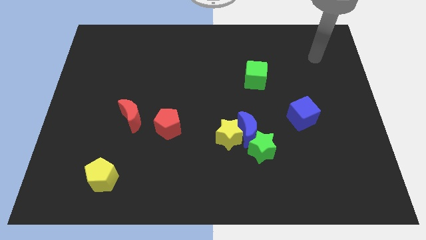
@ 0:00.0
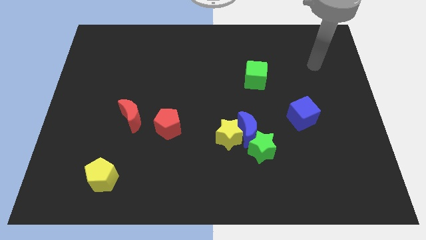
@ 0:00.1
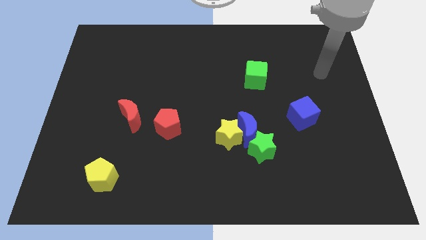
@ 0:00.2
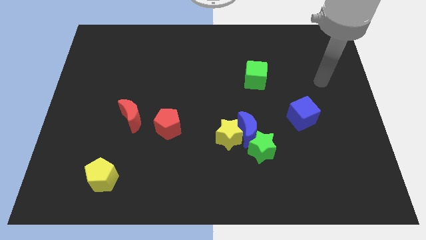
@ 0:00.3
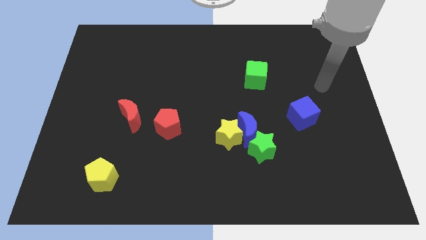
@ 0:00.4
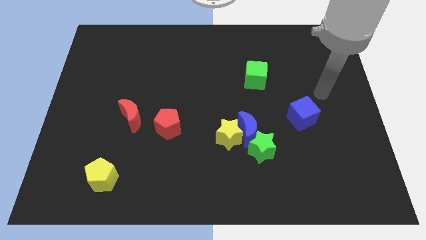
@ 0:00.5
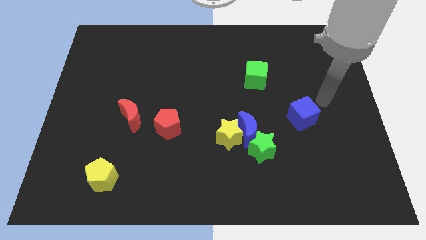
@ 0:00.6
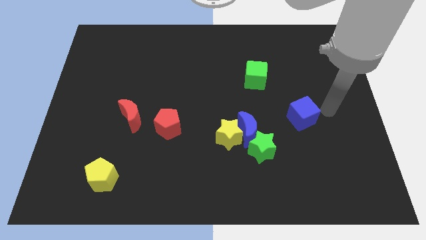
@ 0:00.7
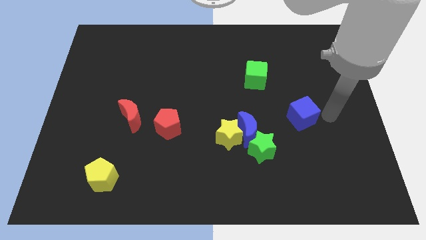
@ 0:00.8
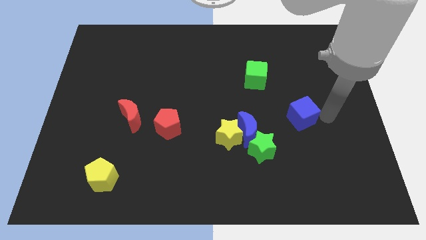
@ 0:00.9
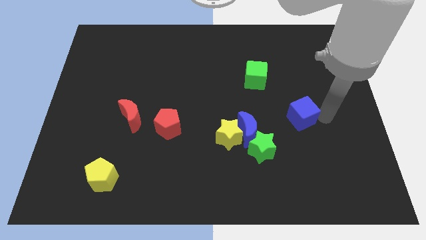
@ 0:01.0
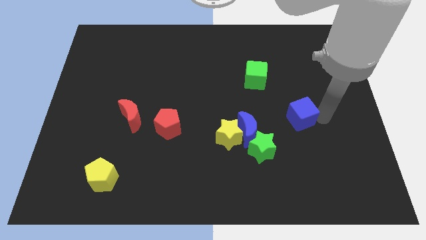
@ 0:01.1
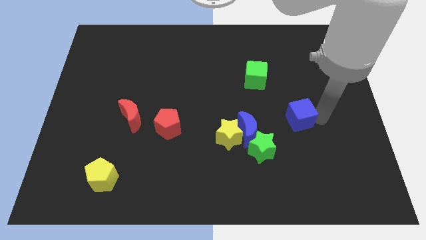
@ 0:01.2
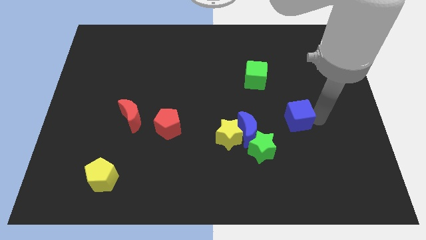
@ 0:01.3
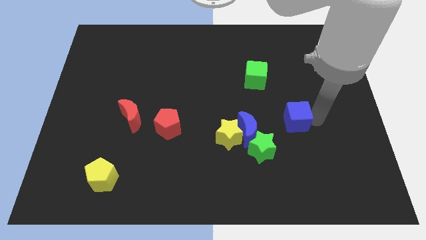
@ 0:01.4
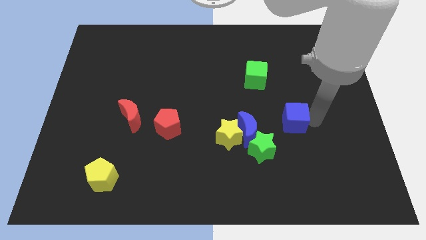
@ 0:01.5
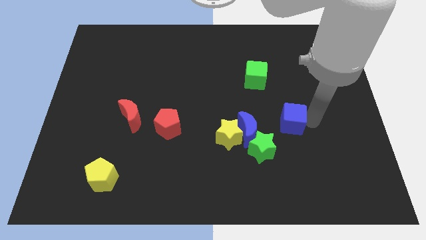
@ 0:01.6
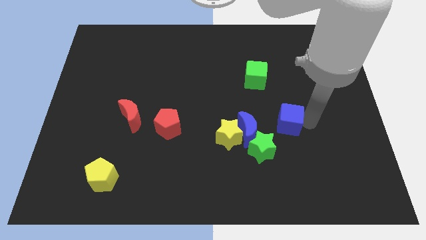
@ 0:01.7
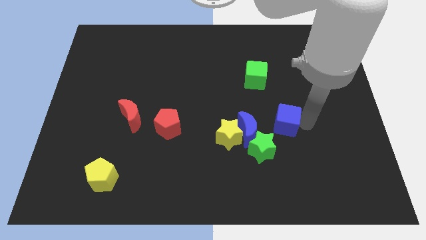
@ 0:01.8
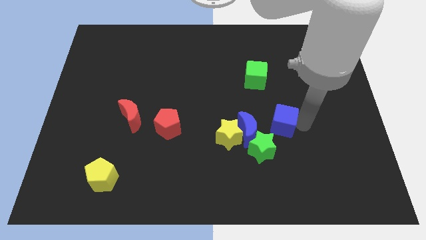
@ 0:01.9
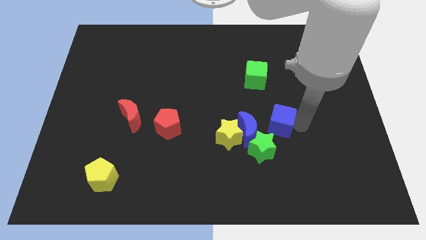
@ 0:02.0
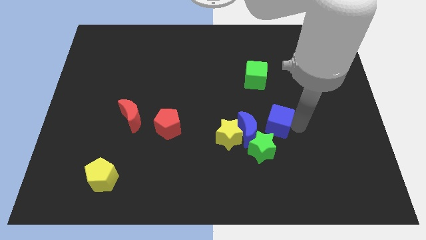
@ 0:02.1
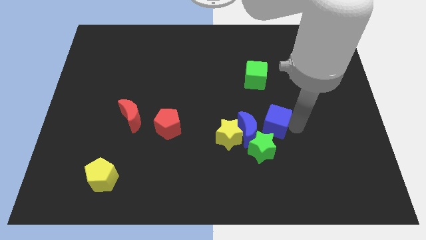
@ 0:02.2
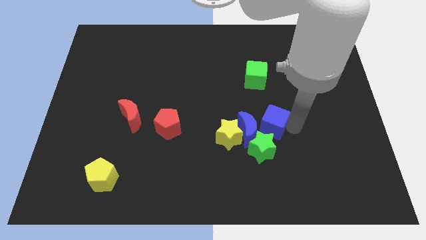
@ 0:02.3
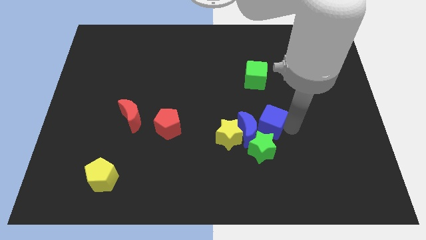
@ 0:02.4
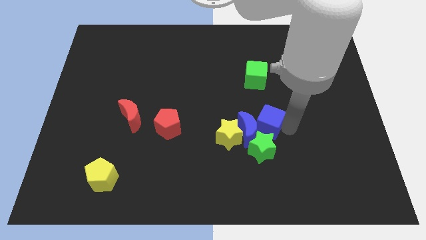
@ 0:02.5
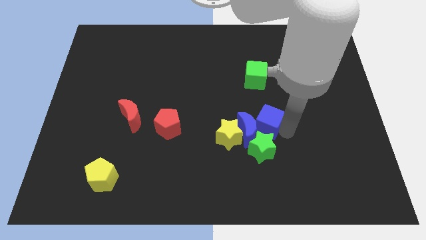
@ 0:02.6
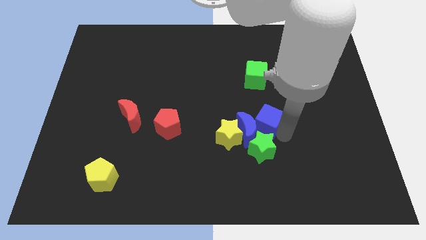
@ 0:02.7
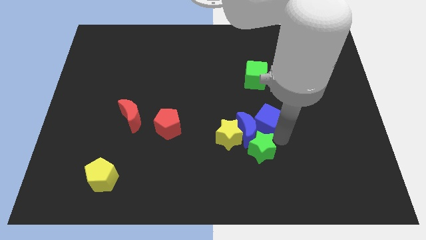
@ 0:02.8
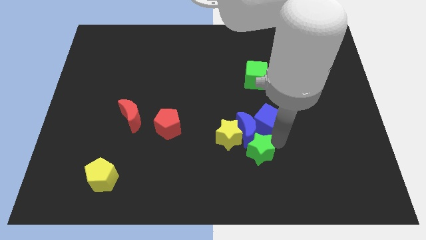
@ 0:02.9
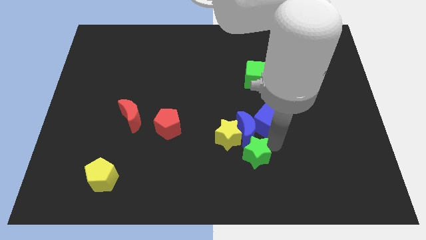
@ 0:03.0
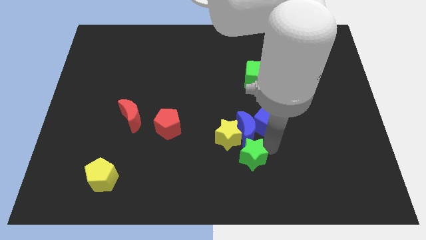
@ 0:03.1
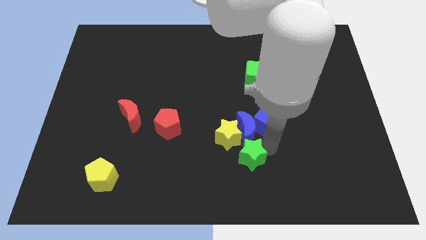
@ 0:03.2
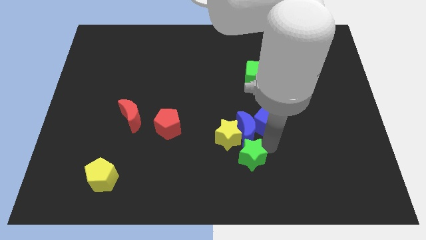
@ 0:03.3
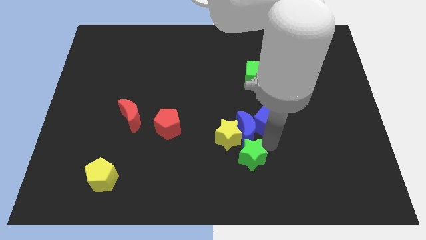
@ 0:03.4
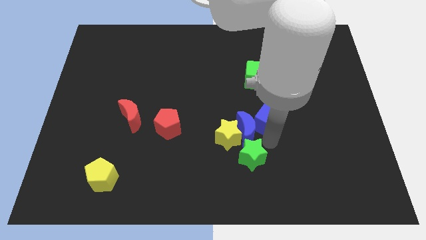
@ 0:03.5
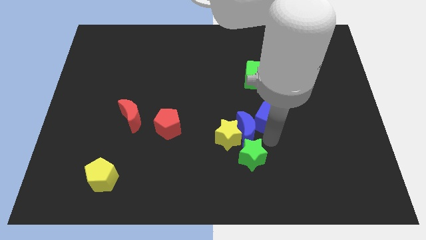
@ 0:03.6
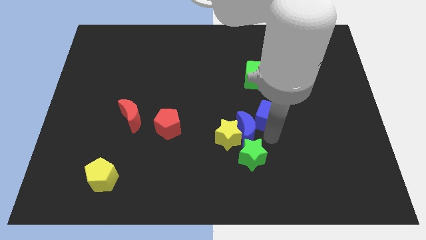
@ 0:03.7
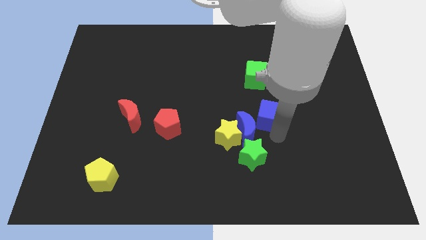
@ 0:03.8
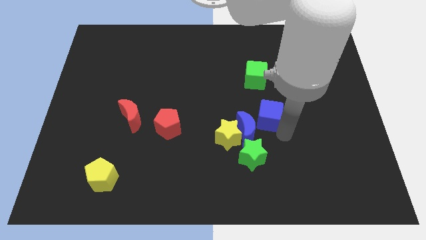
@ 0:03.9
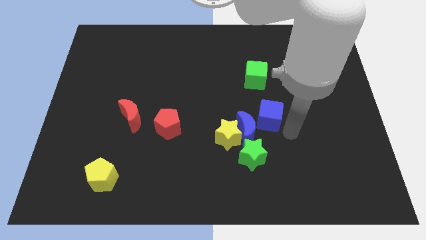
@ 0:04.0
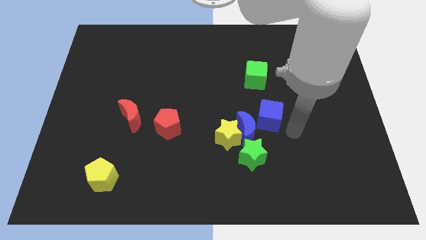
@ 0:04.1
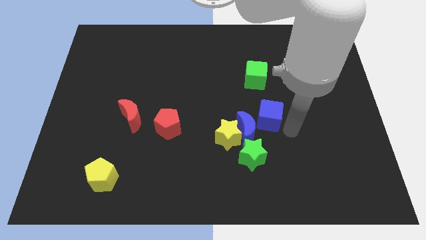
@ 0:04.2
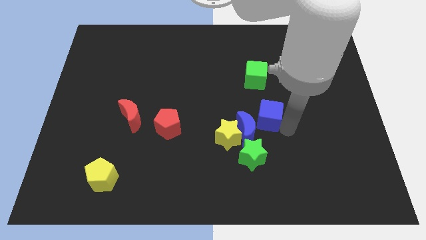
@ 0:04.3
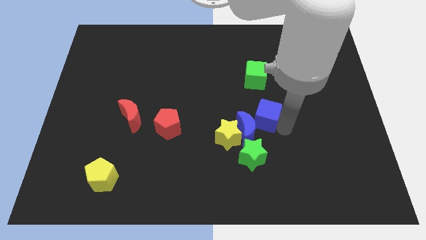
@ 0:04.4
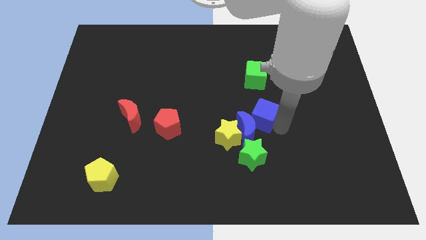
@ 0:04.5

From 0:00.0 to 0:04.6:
slide the blue cube to the middle of the board

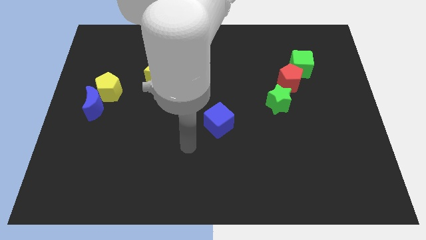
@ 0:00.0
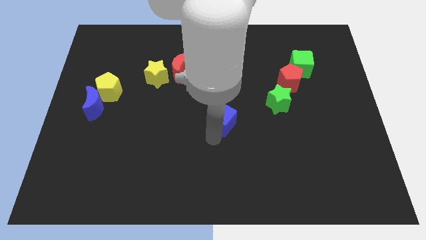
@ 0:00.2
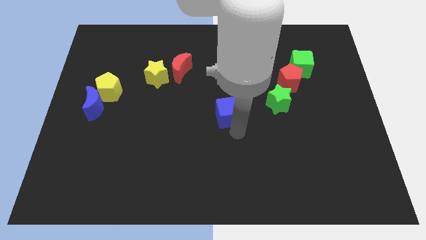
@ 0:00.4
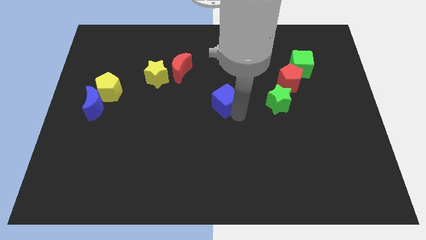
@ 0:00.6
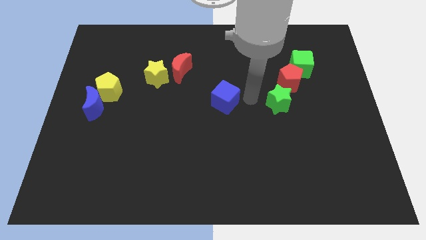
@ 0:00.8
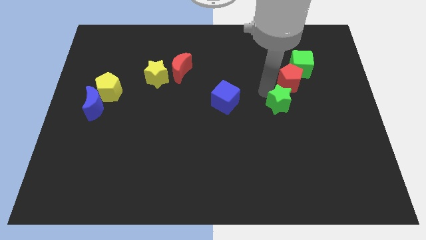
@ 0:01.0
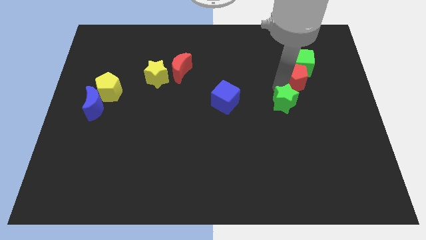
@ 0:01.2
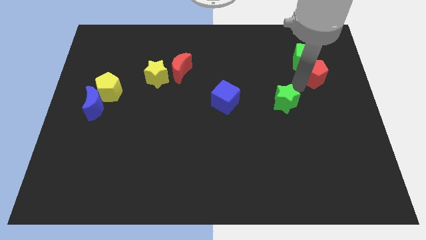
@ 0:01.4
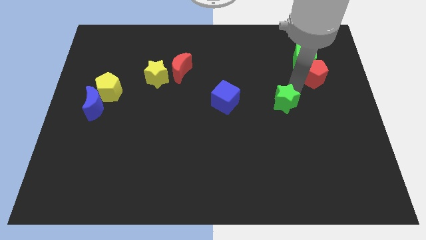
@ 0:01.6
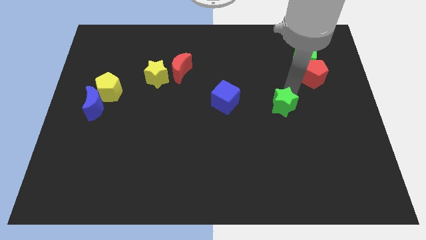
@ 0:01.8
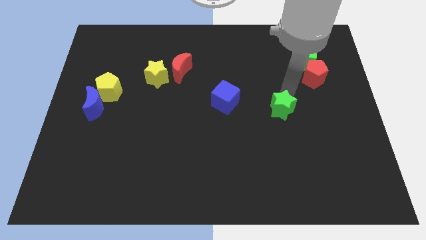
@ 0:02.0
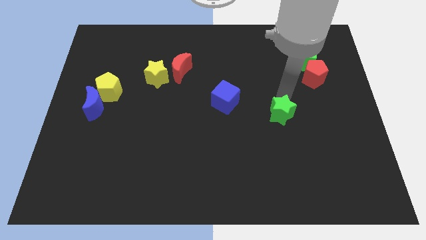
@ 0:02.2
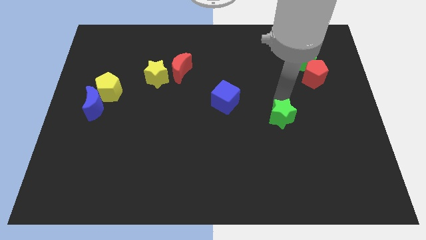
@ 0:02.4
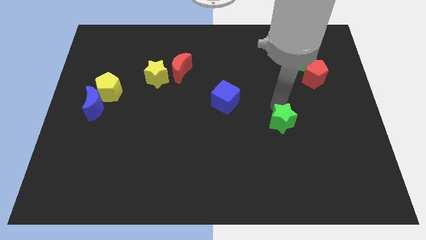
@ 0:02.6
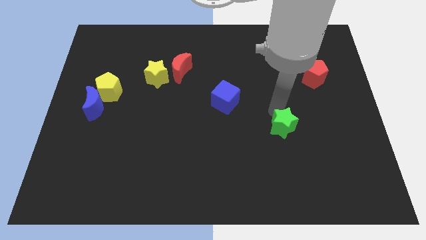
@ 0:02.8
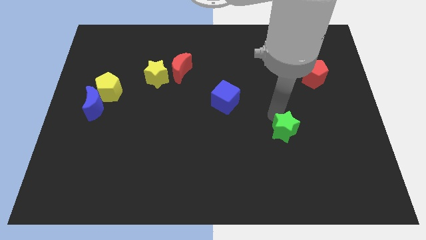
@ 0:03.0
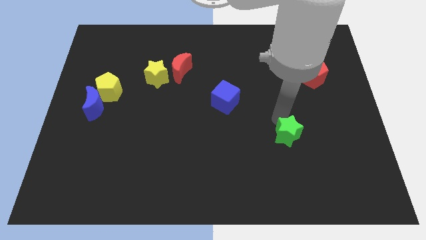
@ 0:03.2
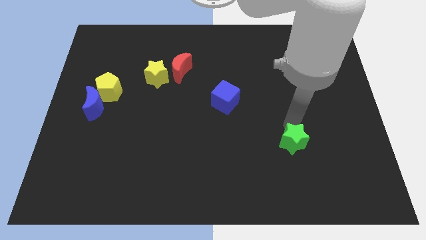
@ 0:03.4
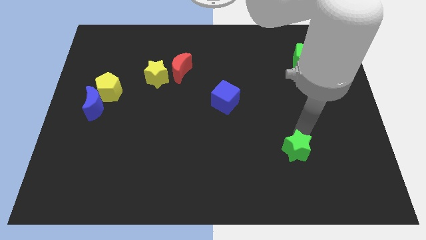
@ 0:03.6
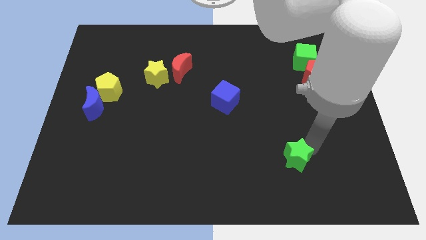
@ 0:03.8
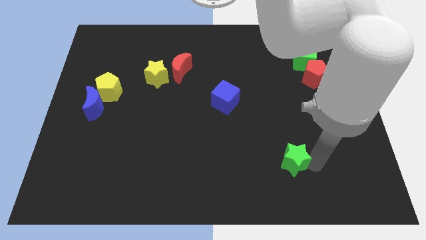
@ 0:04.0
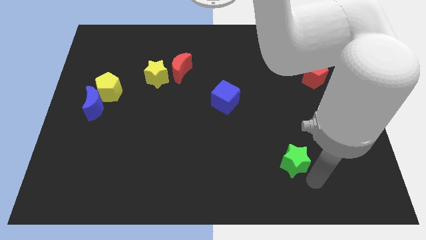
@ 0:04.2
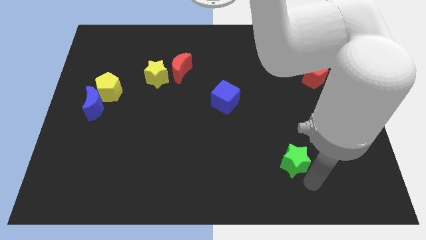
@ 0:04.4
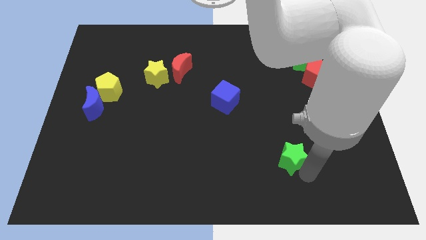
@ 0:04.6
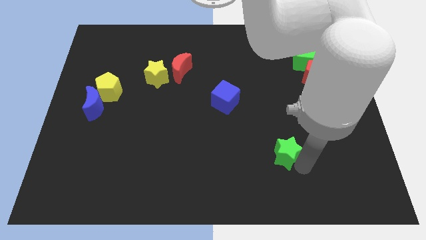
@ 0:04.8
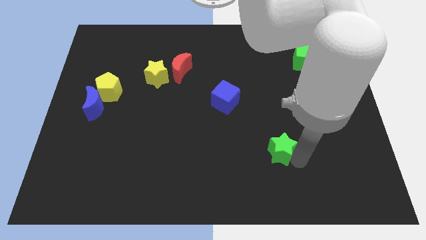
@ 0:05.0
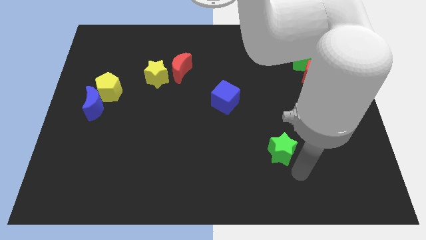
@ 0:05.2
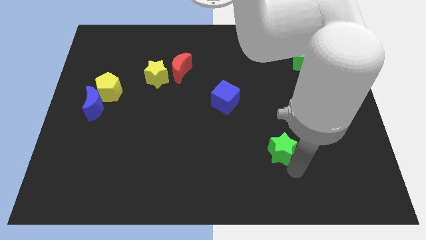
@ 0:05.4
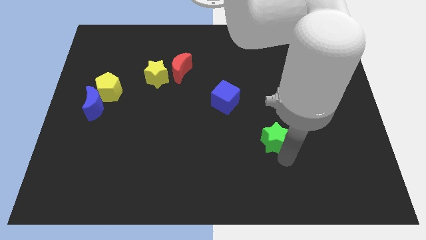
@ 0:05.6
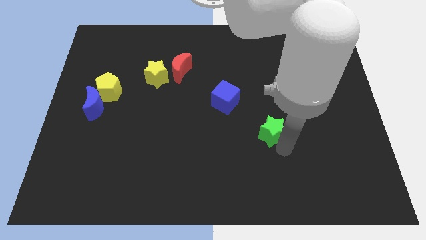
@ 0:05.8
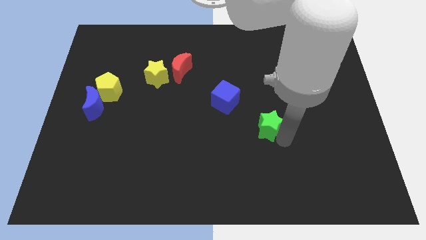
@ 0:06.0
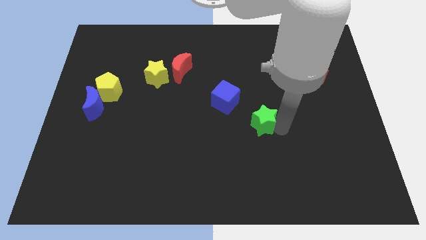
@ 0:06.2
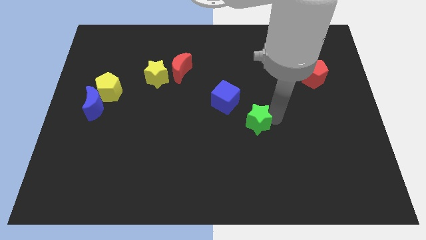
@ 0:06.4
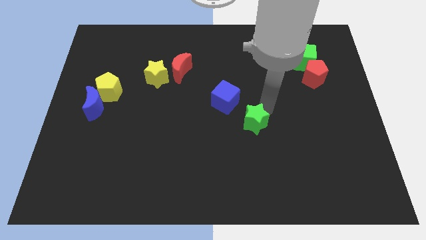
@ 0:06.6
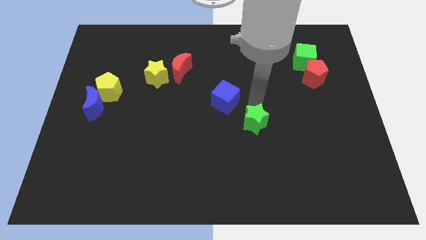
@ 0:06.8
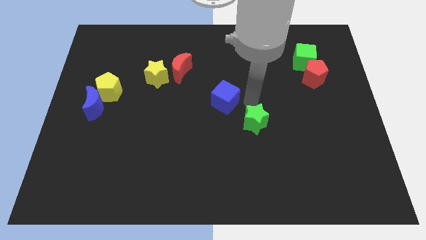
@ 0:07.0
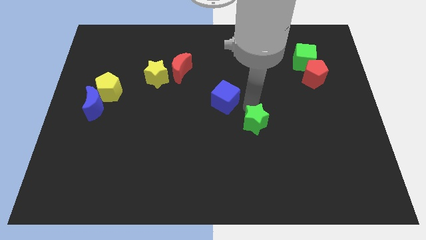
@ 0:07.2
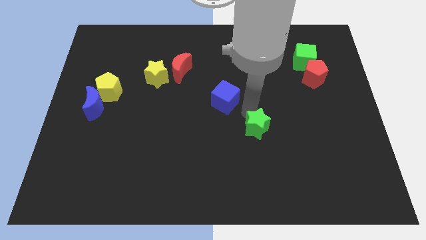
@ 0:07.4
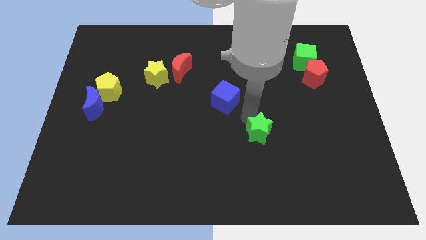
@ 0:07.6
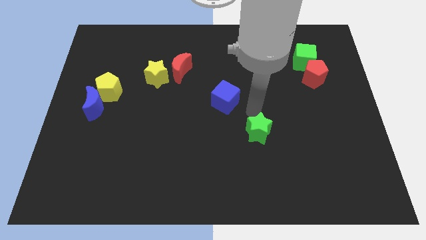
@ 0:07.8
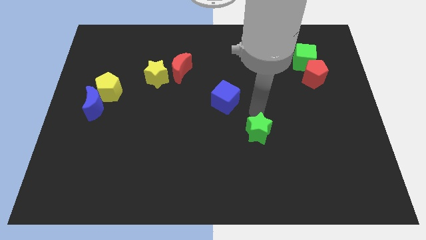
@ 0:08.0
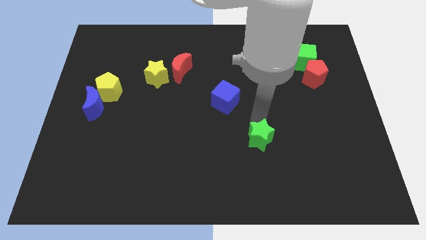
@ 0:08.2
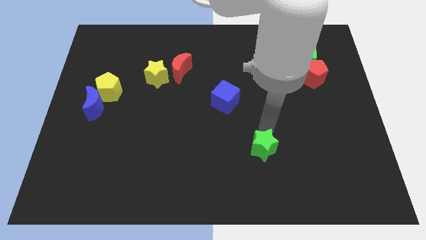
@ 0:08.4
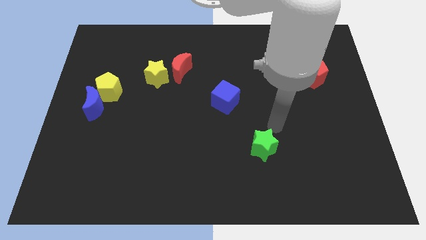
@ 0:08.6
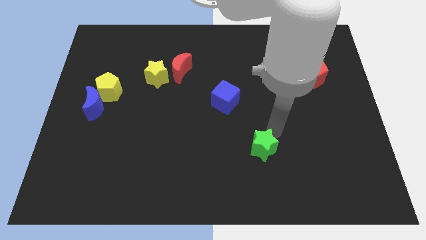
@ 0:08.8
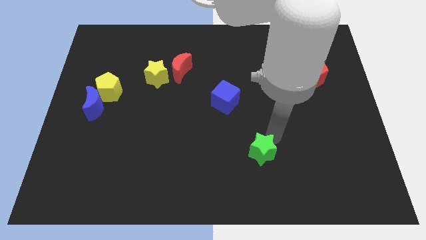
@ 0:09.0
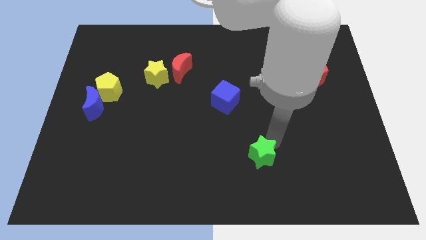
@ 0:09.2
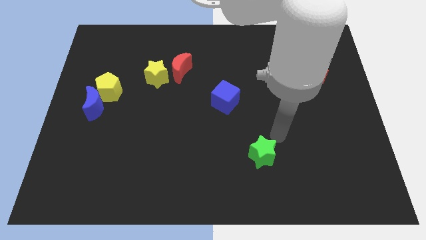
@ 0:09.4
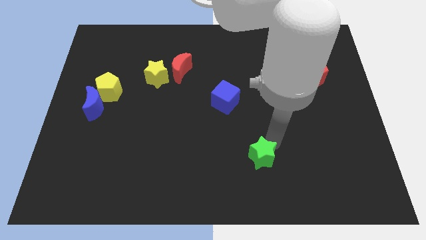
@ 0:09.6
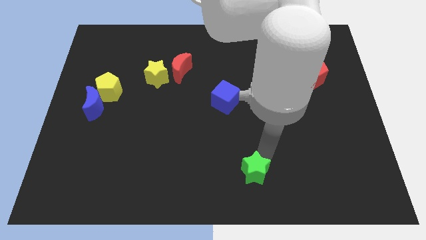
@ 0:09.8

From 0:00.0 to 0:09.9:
push the green star to the bottom
